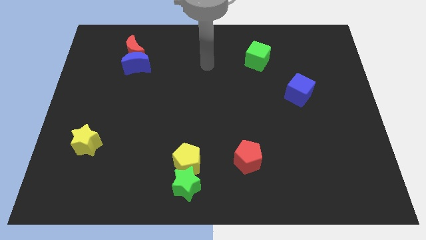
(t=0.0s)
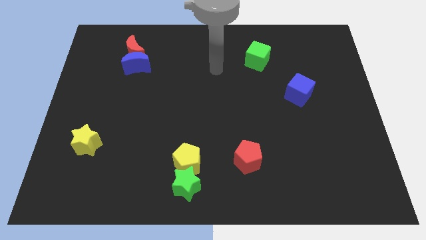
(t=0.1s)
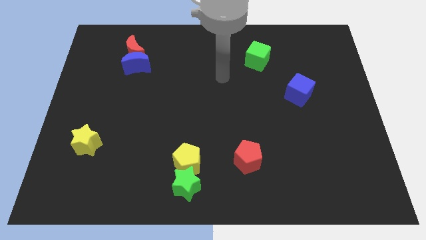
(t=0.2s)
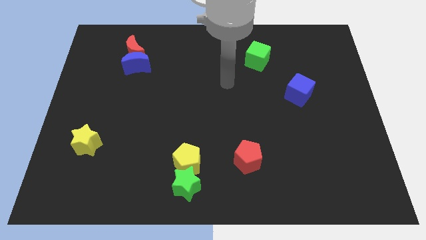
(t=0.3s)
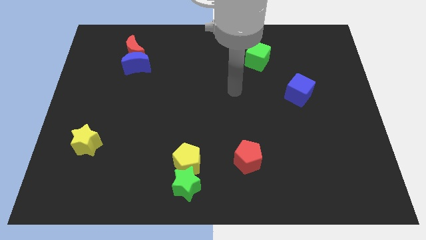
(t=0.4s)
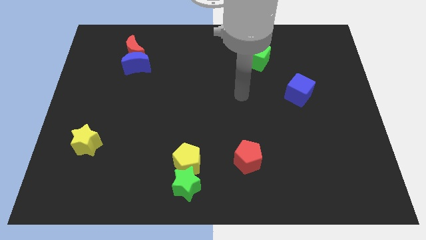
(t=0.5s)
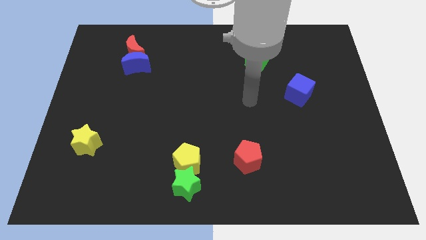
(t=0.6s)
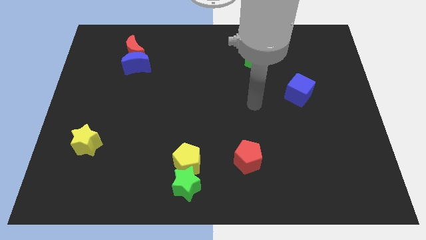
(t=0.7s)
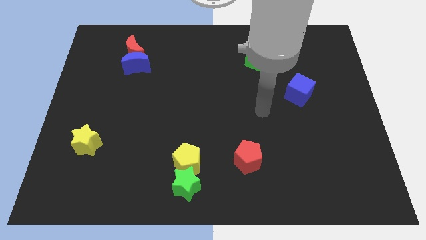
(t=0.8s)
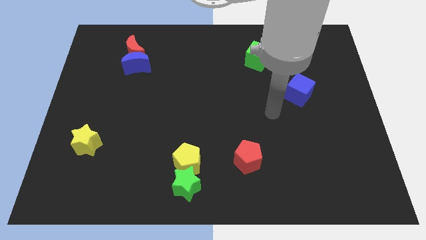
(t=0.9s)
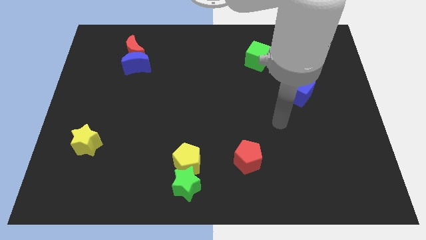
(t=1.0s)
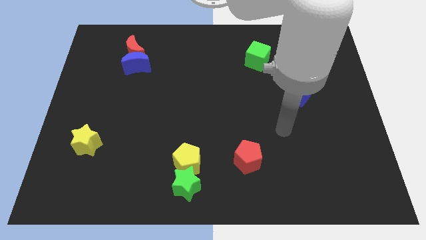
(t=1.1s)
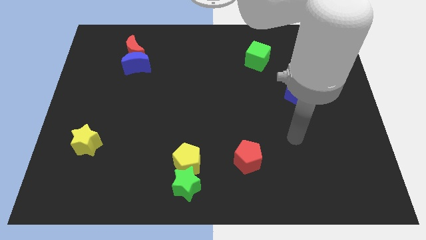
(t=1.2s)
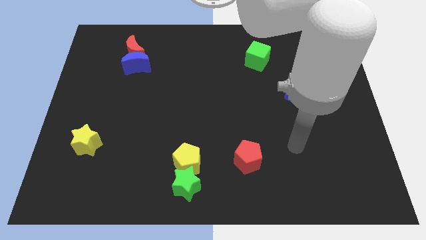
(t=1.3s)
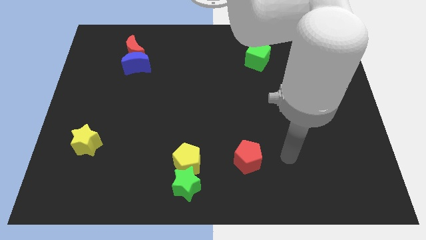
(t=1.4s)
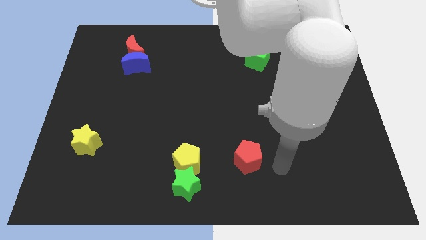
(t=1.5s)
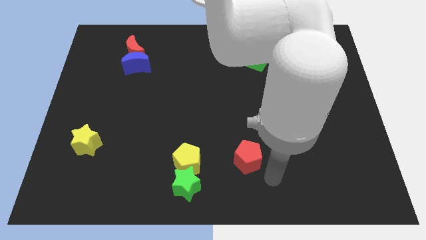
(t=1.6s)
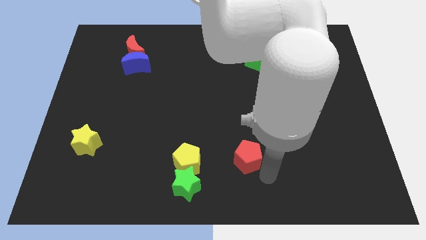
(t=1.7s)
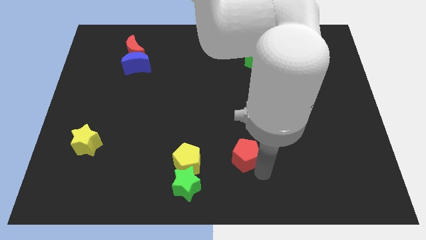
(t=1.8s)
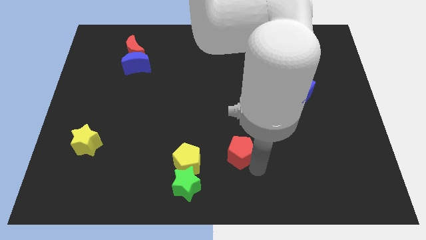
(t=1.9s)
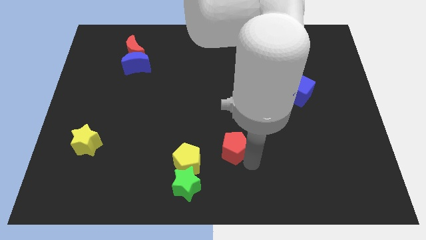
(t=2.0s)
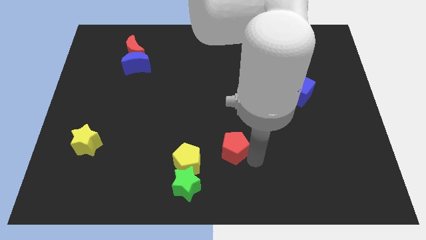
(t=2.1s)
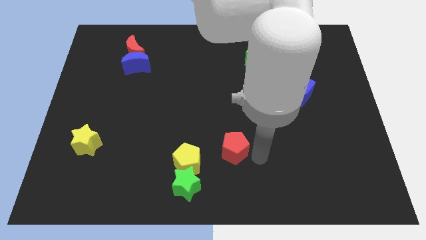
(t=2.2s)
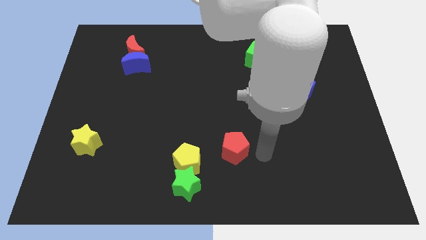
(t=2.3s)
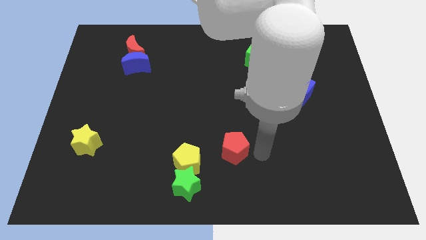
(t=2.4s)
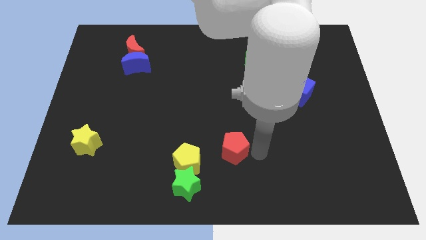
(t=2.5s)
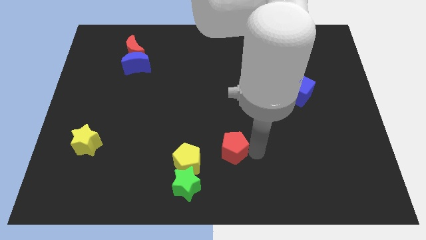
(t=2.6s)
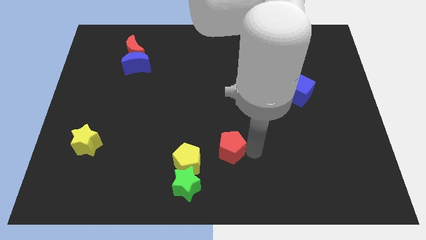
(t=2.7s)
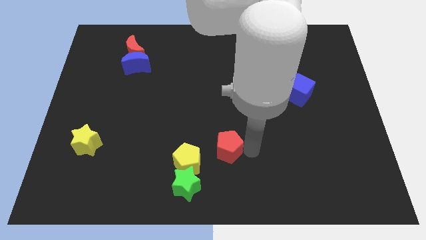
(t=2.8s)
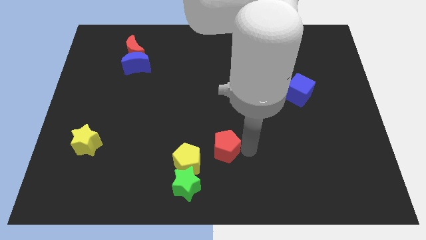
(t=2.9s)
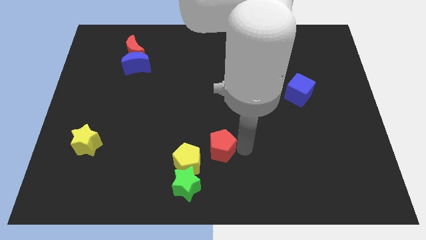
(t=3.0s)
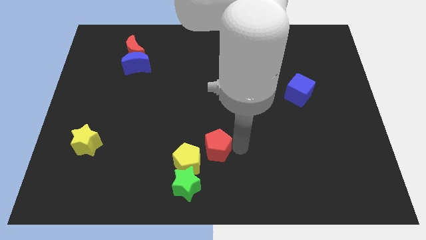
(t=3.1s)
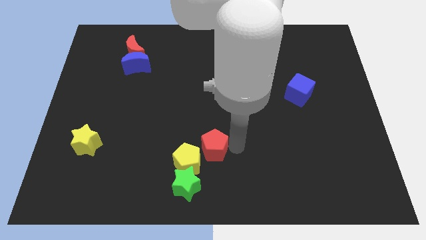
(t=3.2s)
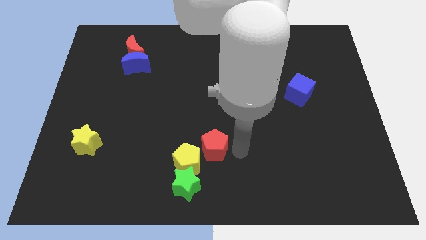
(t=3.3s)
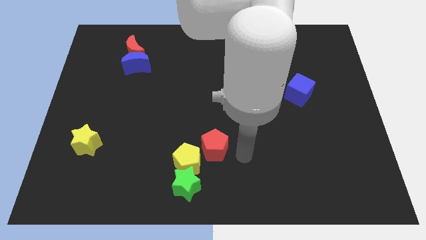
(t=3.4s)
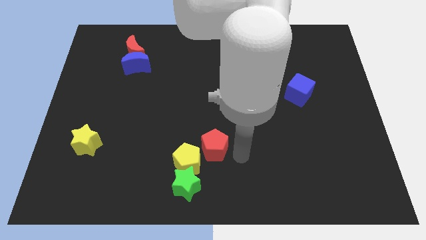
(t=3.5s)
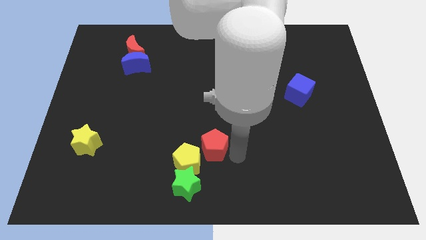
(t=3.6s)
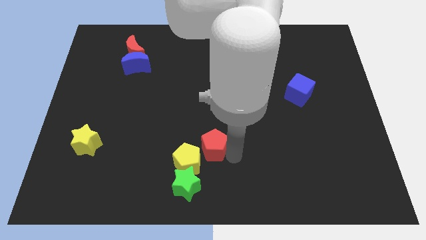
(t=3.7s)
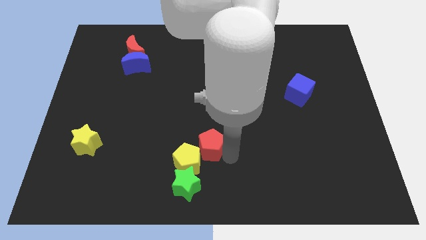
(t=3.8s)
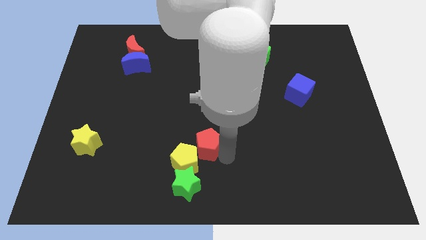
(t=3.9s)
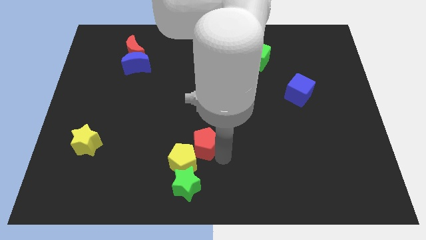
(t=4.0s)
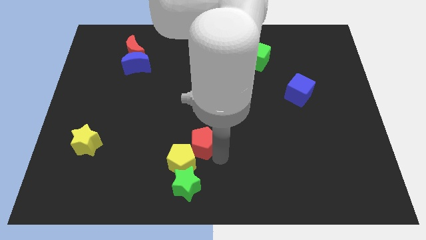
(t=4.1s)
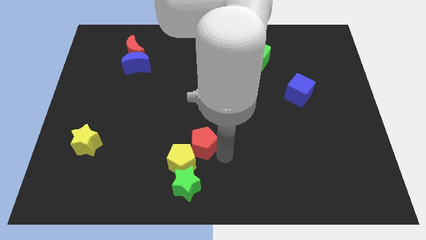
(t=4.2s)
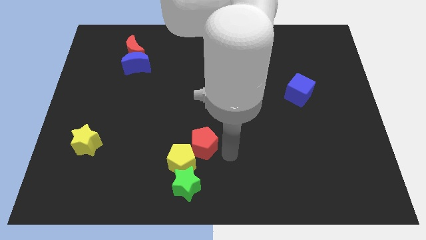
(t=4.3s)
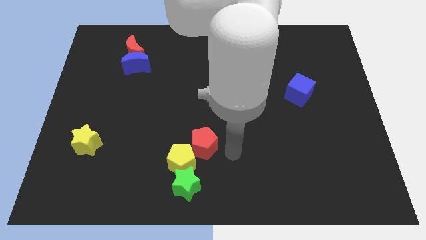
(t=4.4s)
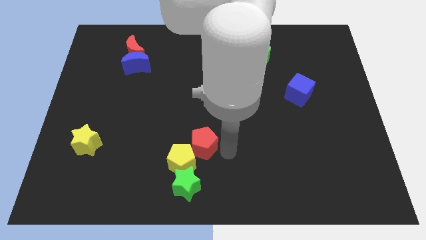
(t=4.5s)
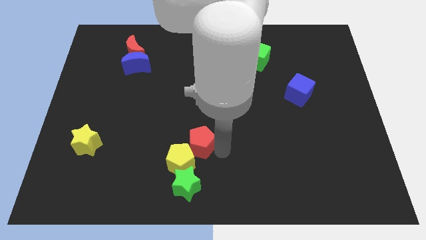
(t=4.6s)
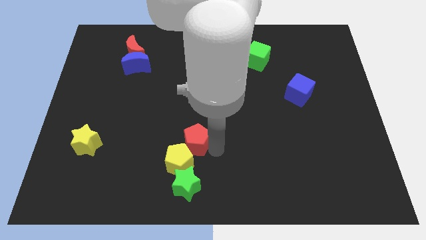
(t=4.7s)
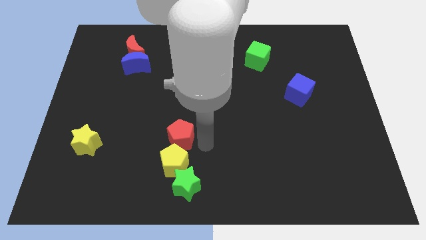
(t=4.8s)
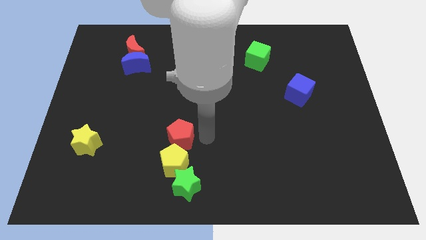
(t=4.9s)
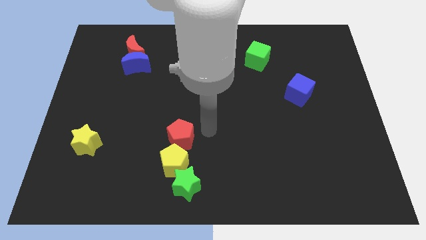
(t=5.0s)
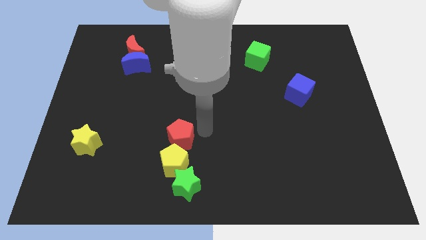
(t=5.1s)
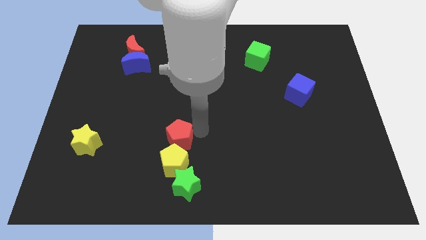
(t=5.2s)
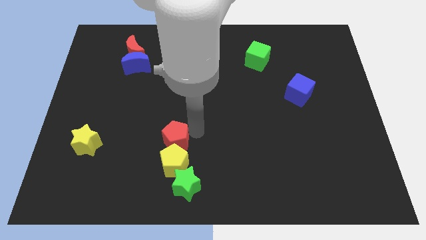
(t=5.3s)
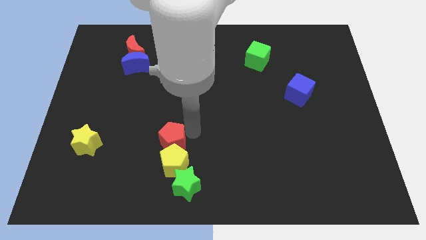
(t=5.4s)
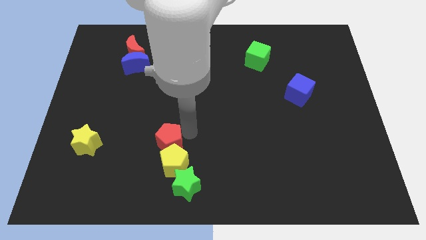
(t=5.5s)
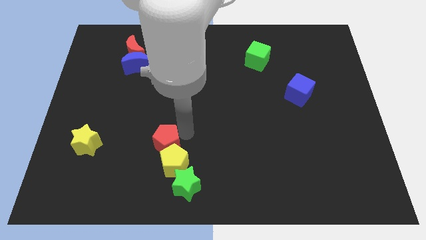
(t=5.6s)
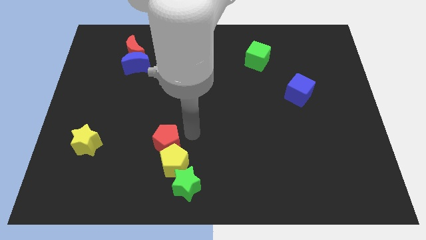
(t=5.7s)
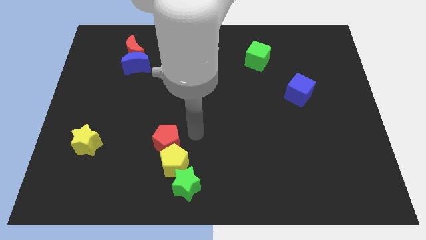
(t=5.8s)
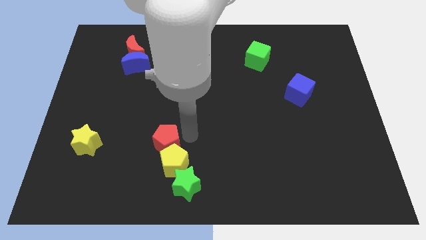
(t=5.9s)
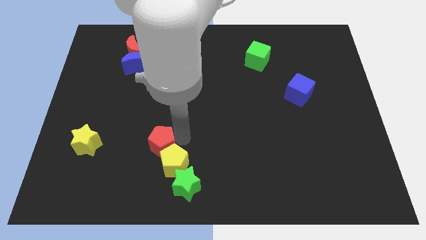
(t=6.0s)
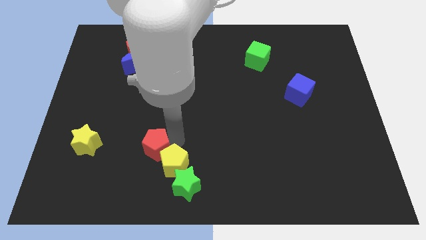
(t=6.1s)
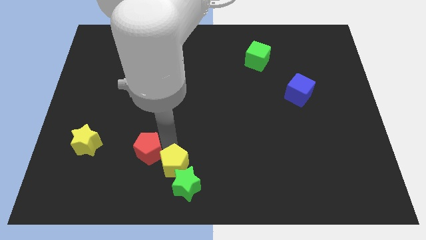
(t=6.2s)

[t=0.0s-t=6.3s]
move the red pentagon left

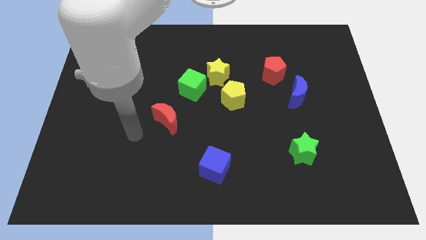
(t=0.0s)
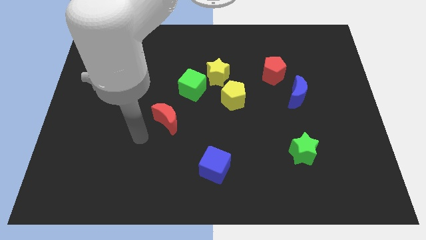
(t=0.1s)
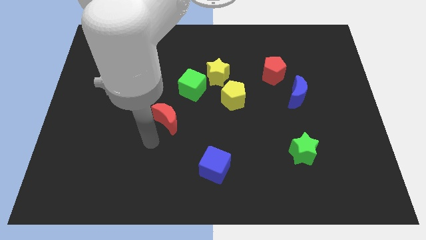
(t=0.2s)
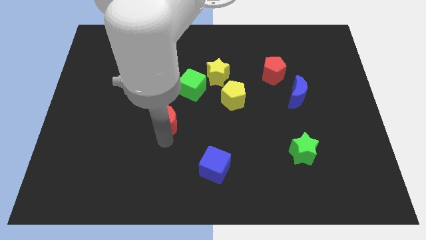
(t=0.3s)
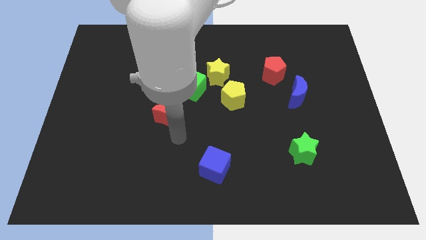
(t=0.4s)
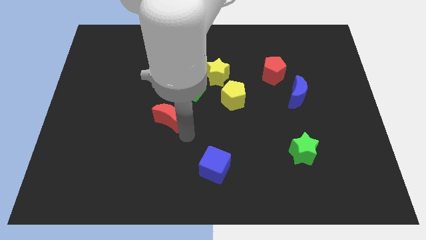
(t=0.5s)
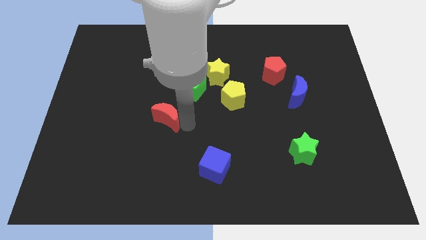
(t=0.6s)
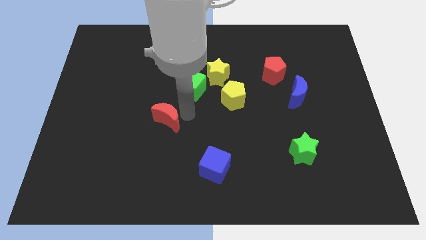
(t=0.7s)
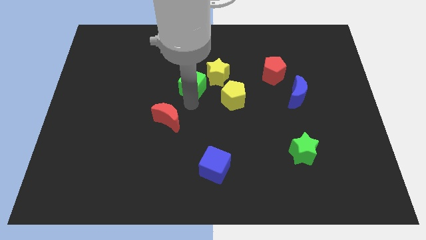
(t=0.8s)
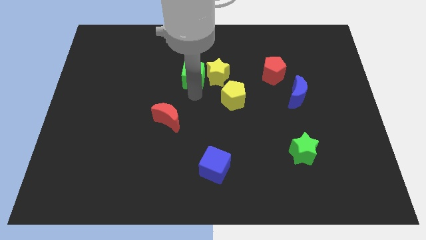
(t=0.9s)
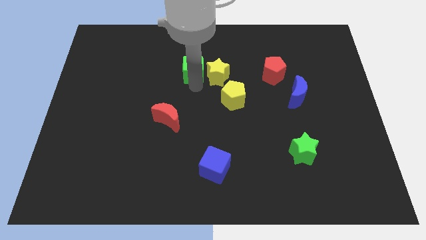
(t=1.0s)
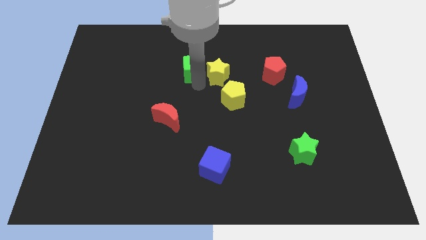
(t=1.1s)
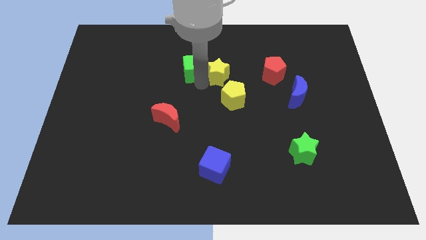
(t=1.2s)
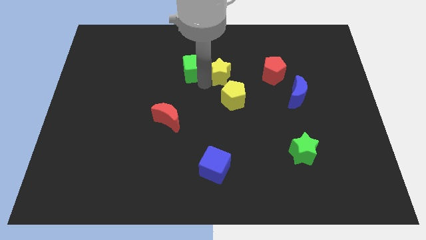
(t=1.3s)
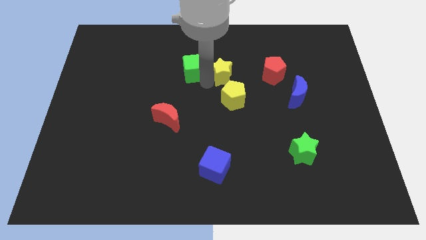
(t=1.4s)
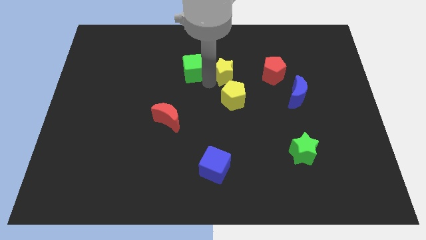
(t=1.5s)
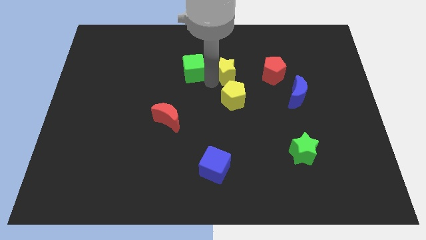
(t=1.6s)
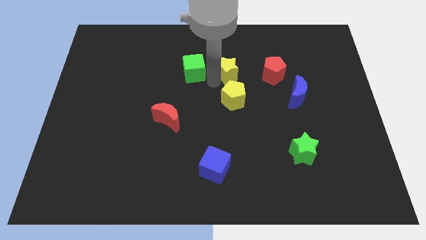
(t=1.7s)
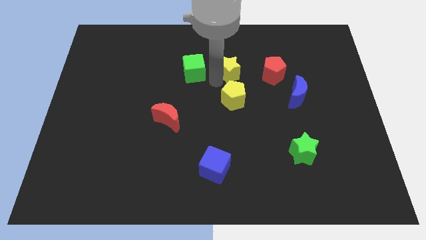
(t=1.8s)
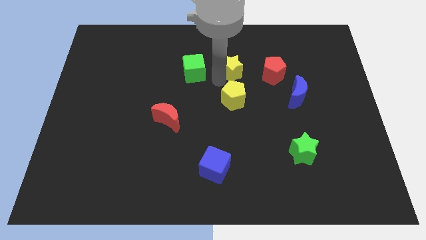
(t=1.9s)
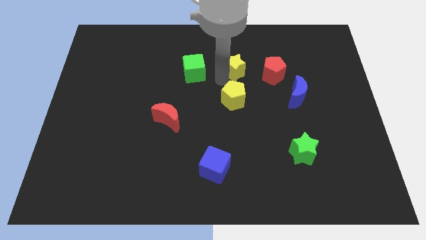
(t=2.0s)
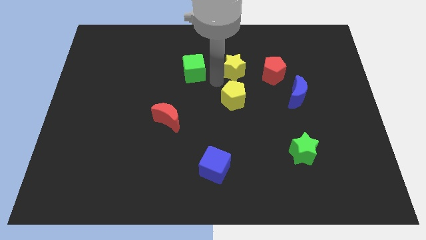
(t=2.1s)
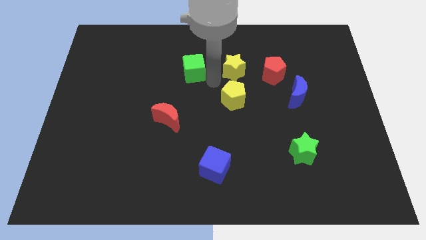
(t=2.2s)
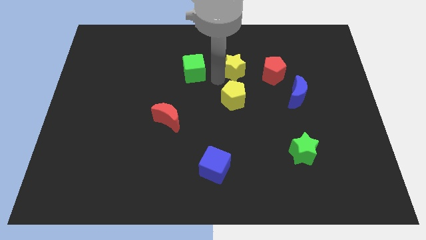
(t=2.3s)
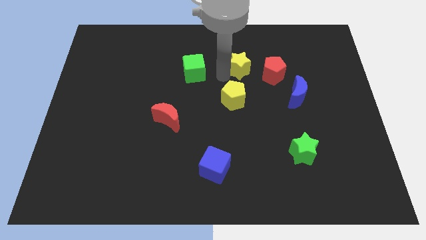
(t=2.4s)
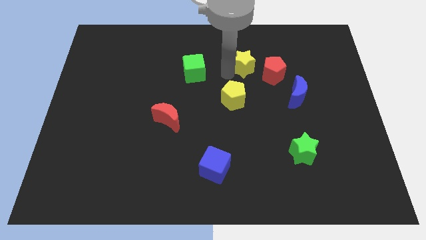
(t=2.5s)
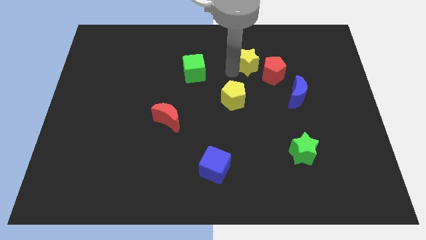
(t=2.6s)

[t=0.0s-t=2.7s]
push the yellow star right a bit
